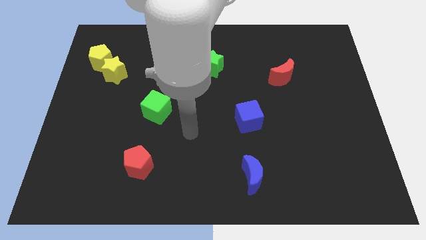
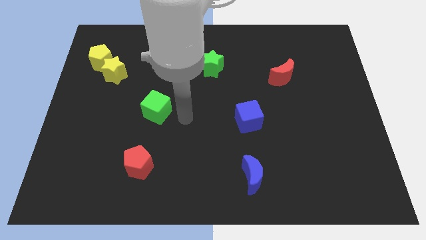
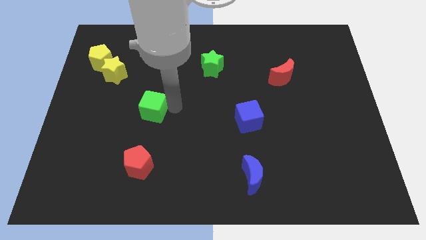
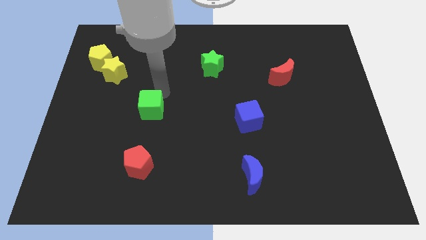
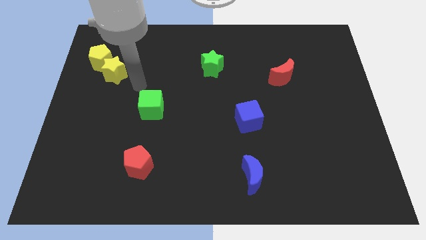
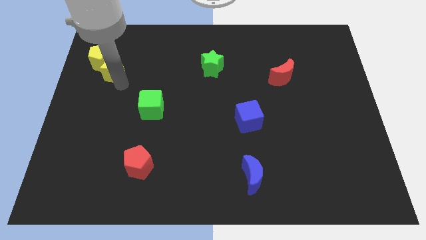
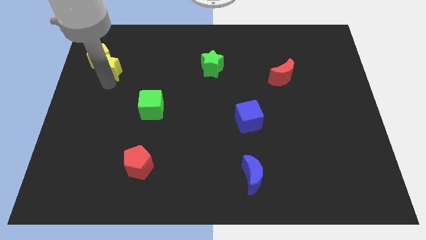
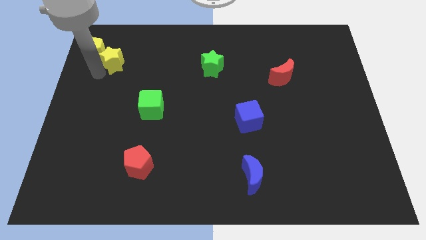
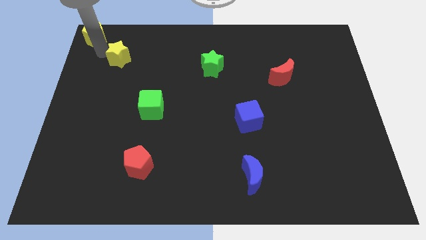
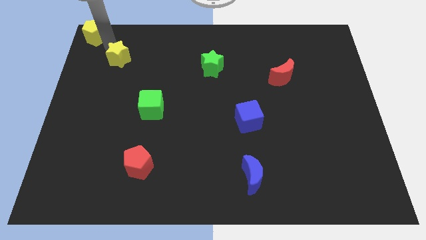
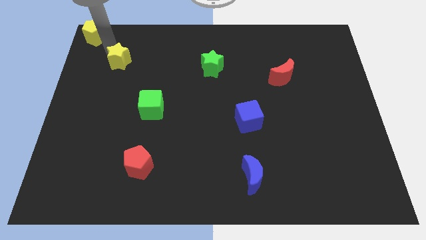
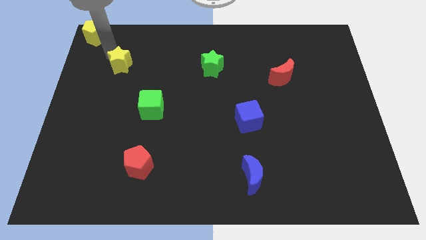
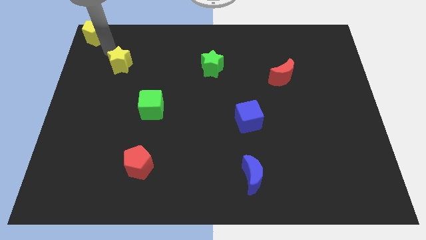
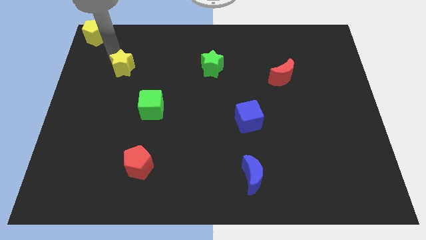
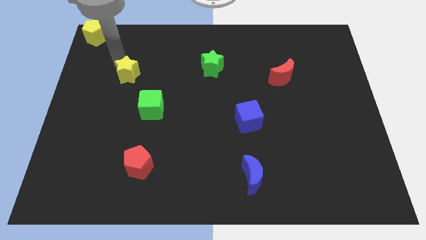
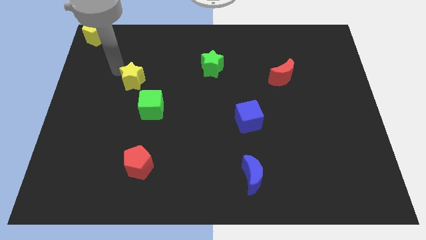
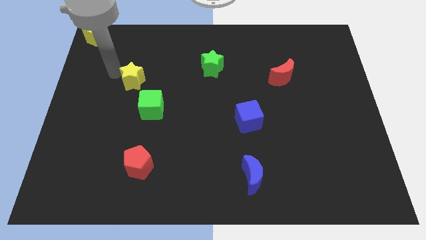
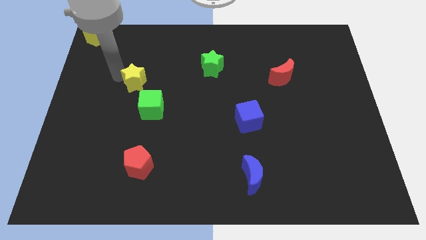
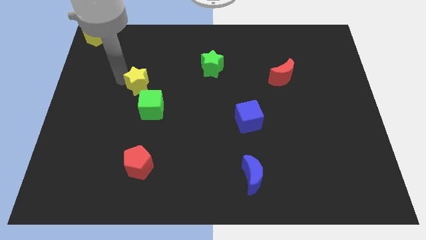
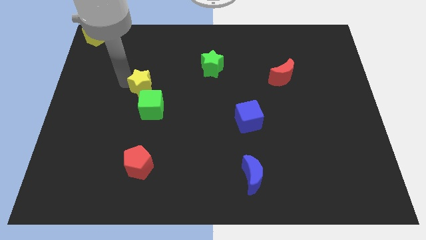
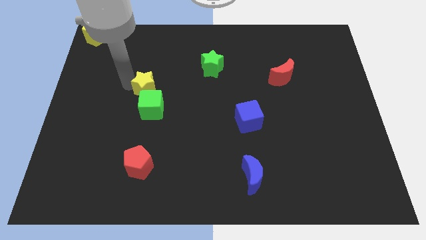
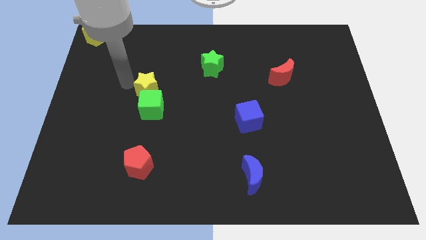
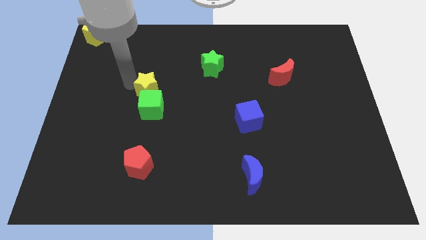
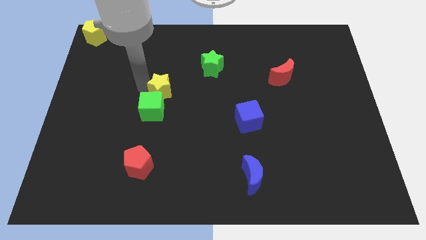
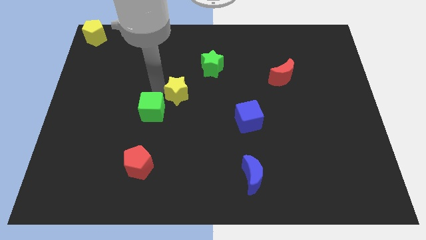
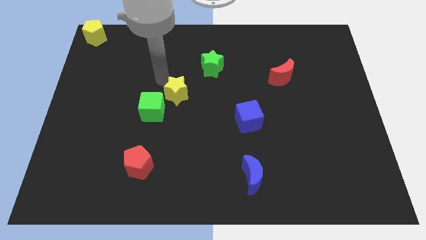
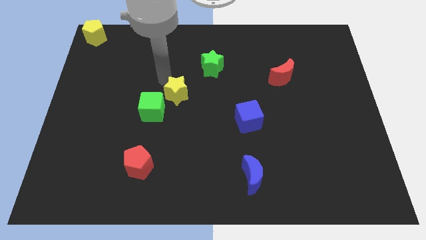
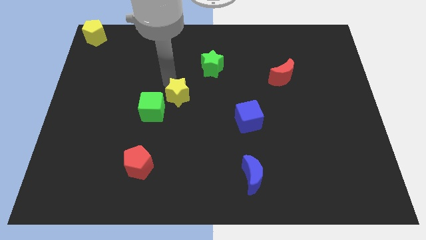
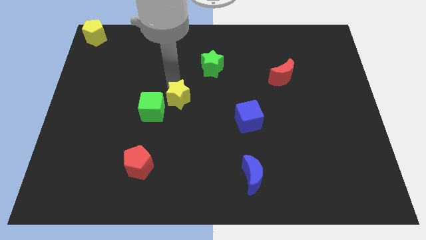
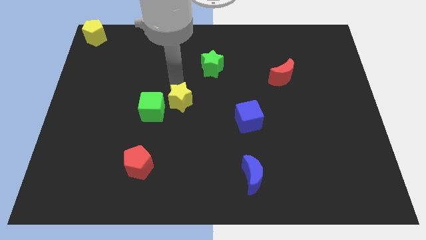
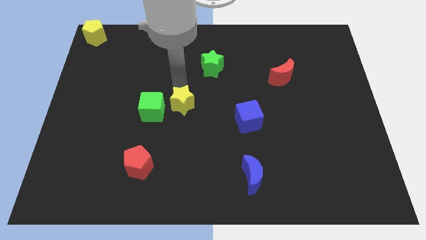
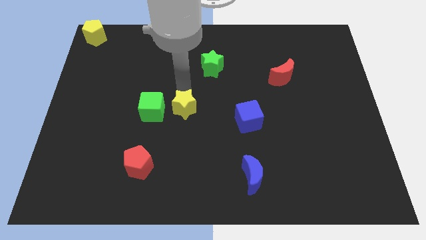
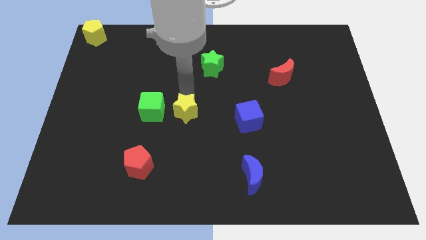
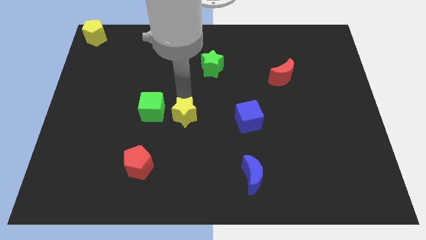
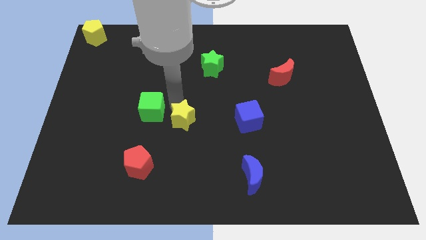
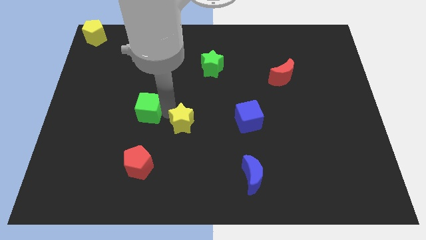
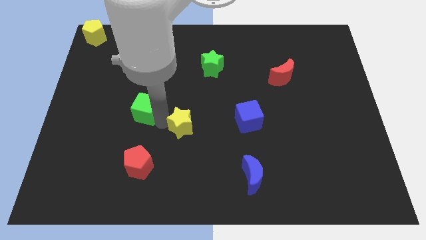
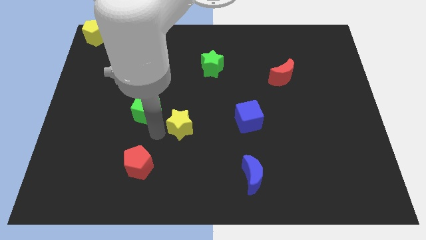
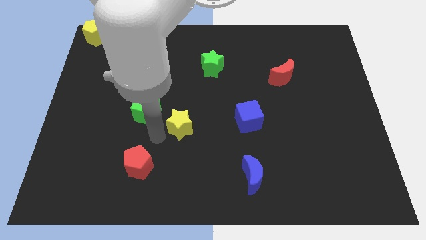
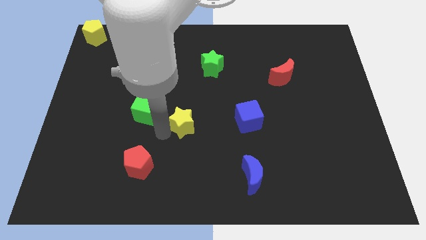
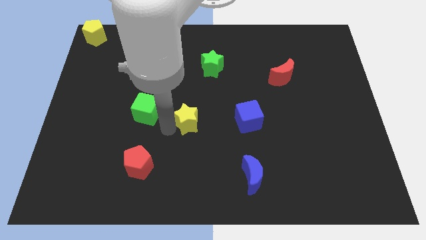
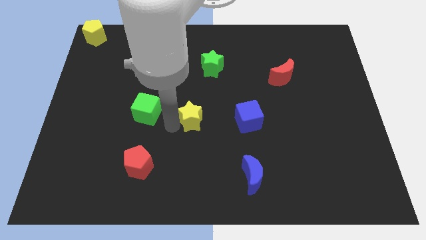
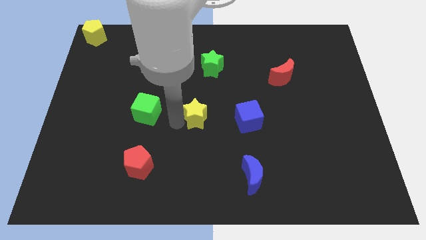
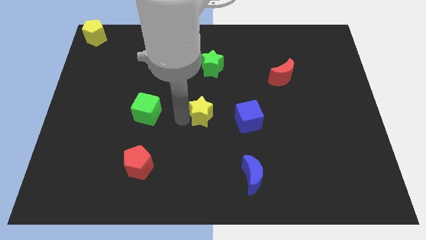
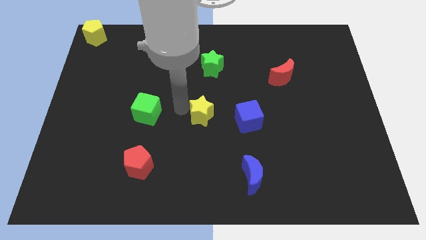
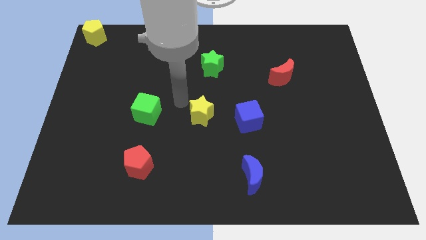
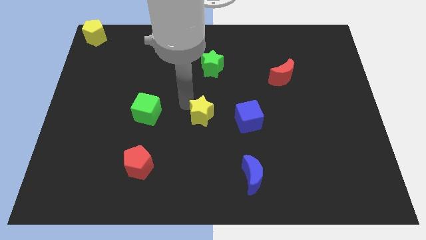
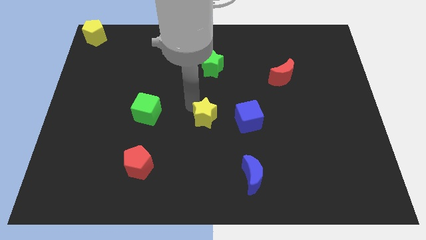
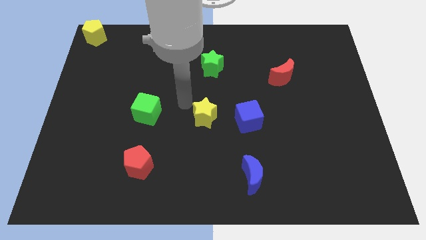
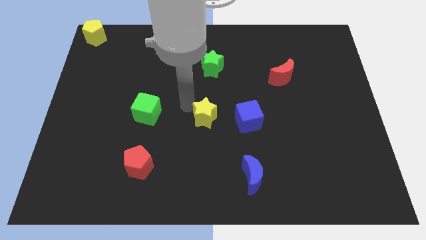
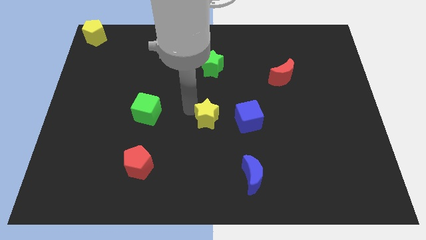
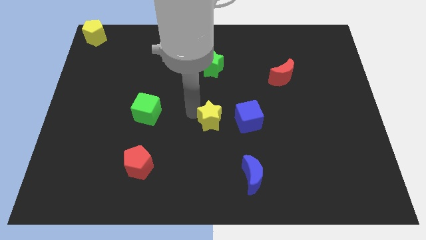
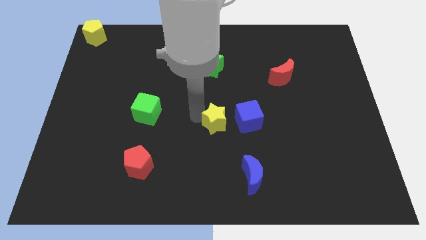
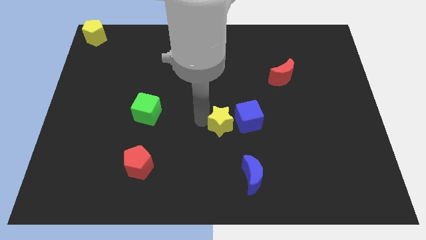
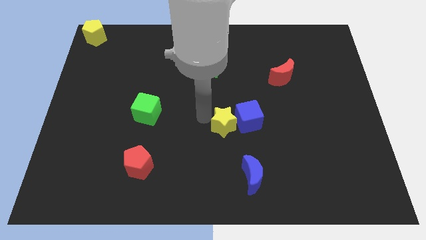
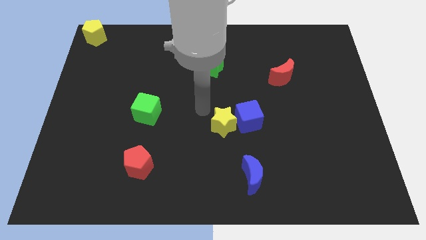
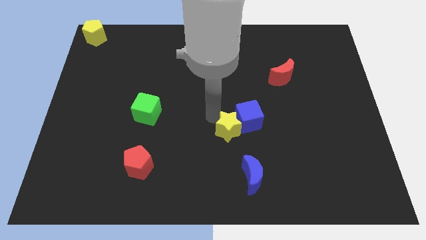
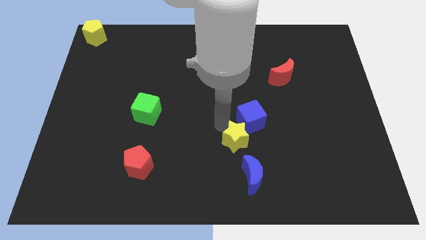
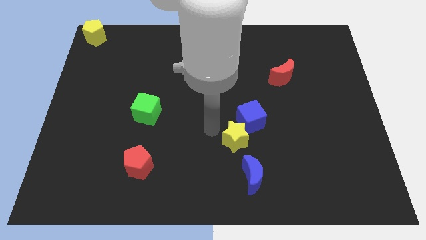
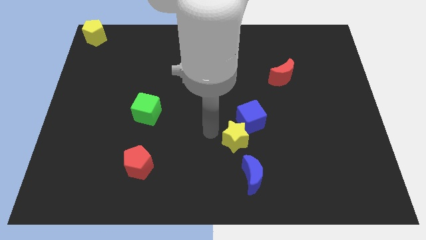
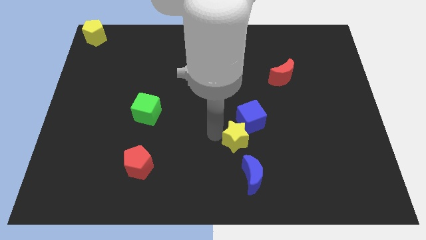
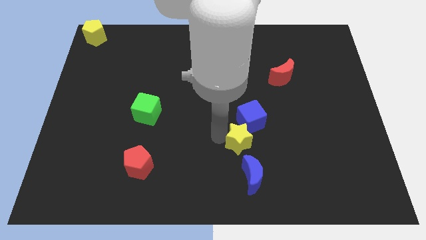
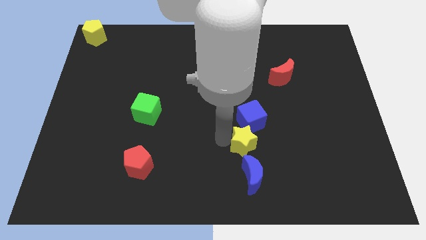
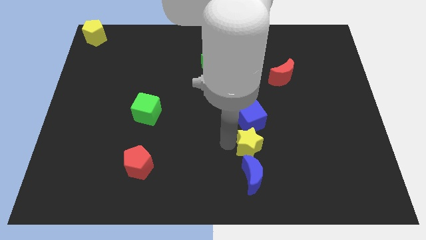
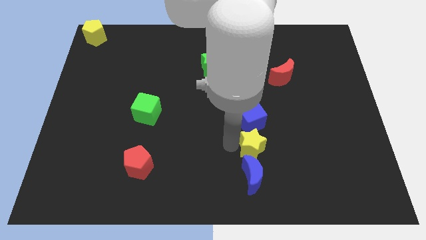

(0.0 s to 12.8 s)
push the yellow star to the top right of the blue moon
